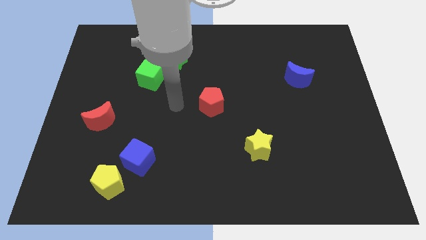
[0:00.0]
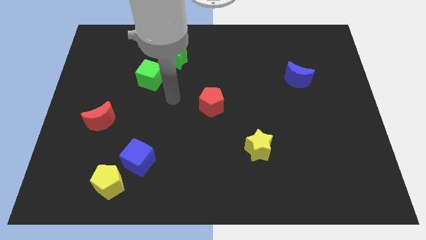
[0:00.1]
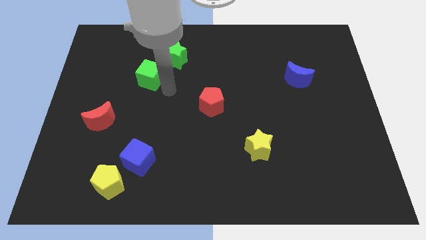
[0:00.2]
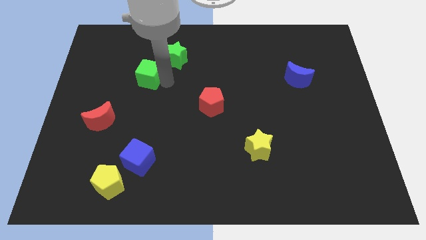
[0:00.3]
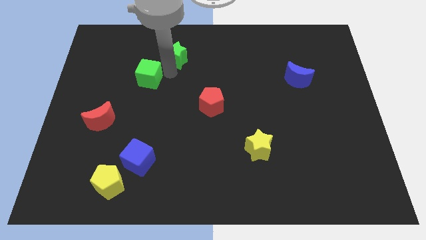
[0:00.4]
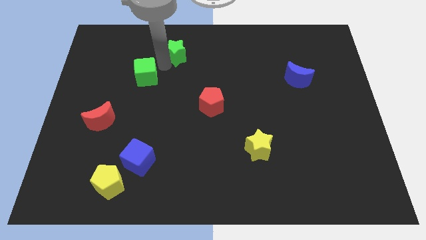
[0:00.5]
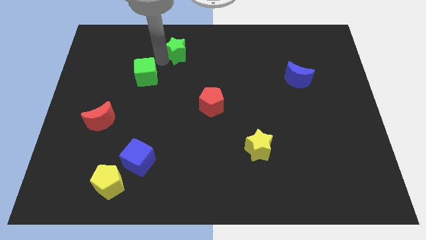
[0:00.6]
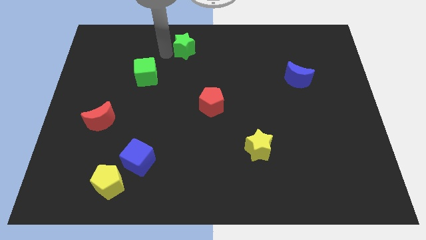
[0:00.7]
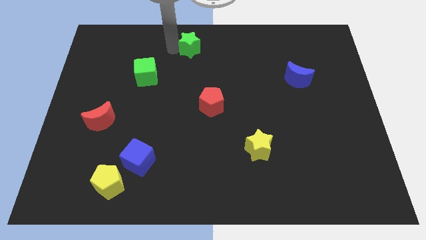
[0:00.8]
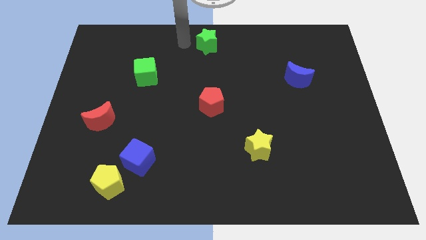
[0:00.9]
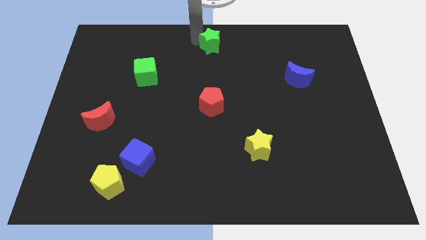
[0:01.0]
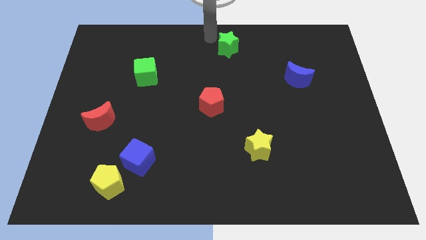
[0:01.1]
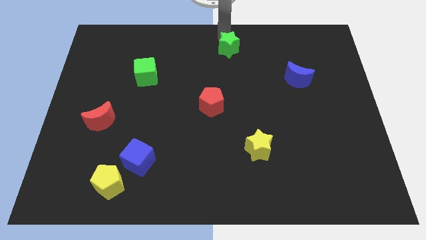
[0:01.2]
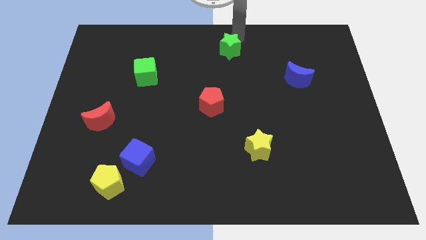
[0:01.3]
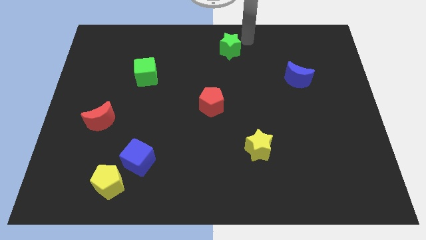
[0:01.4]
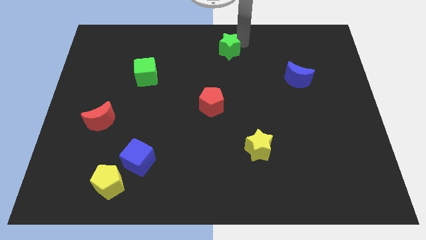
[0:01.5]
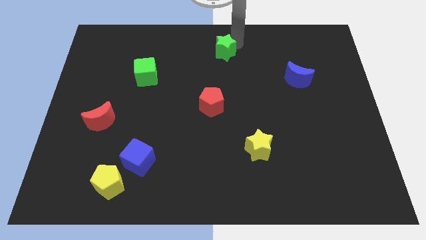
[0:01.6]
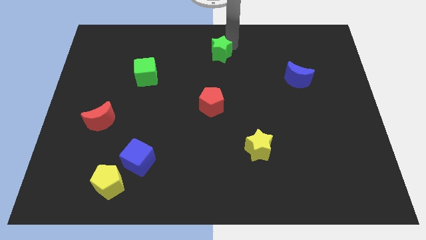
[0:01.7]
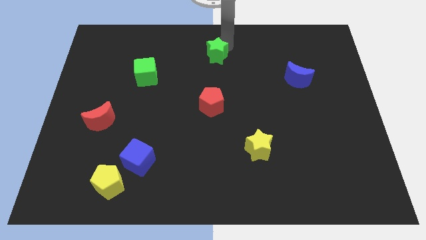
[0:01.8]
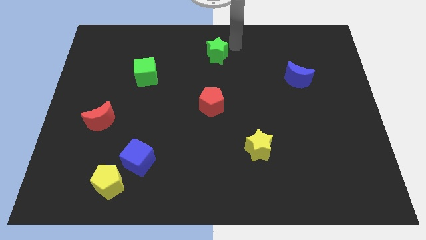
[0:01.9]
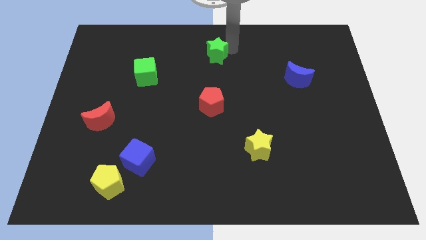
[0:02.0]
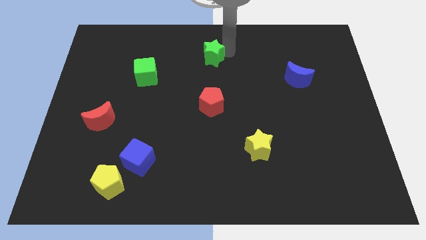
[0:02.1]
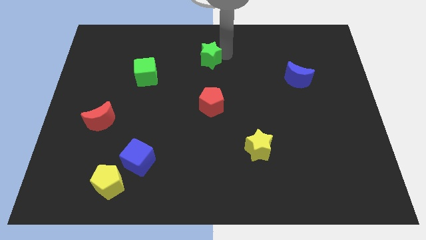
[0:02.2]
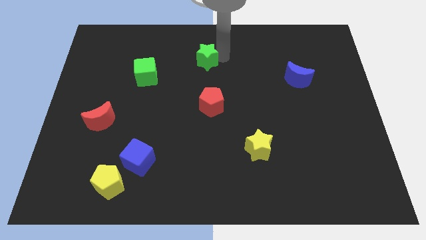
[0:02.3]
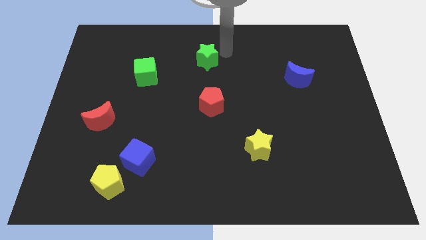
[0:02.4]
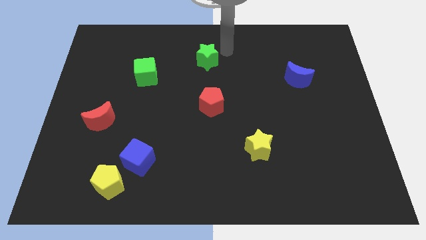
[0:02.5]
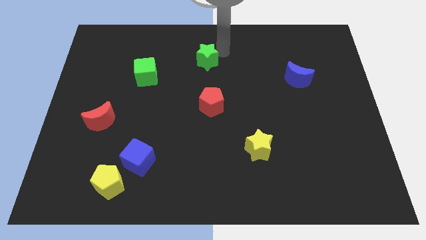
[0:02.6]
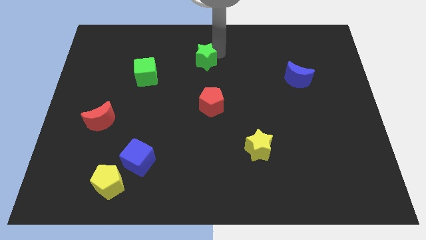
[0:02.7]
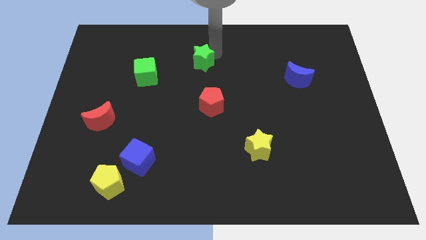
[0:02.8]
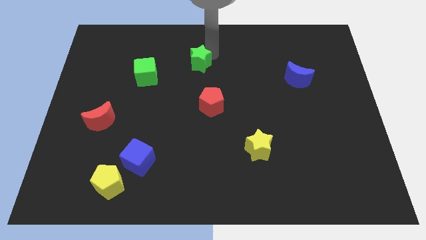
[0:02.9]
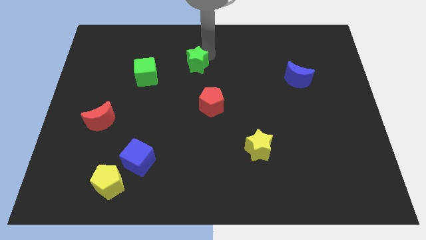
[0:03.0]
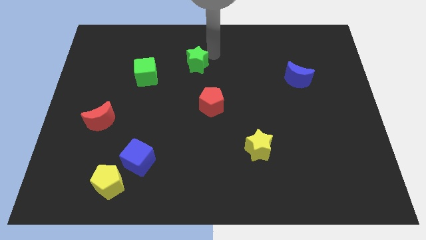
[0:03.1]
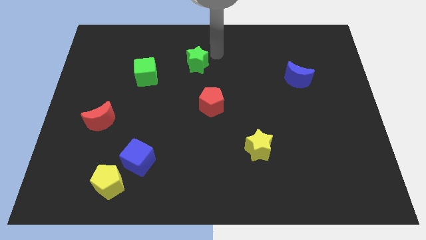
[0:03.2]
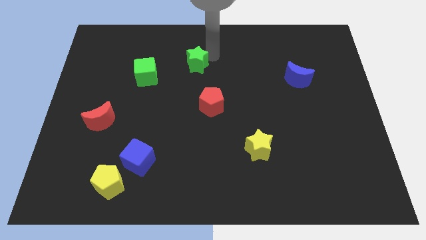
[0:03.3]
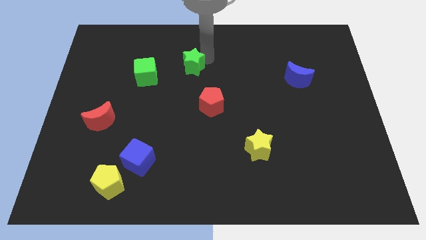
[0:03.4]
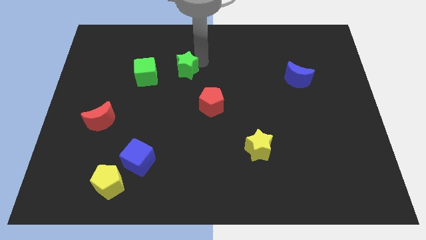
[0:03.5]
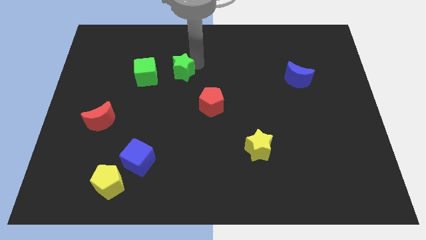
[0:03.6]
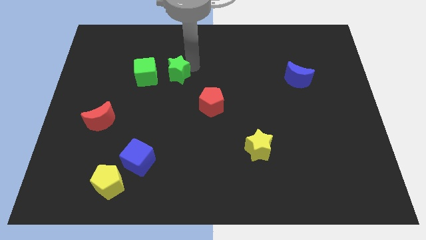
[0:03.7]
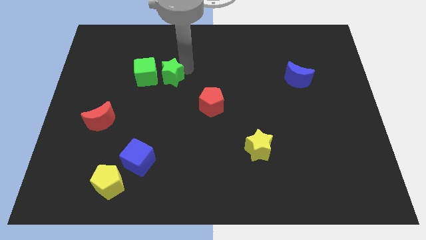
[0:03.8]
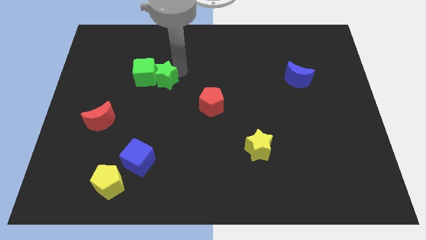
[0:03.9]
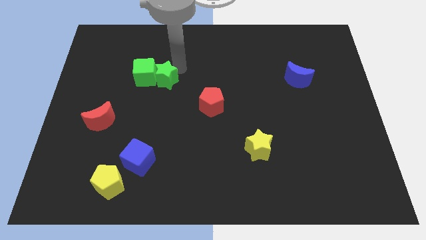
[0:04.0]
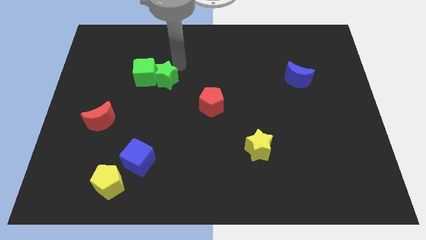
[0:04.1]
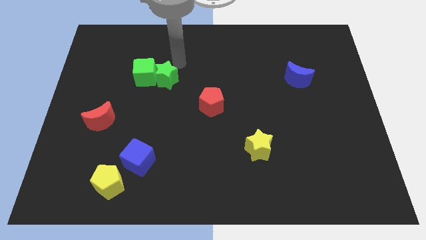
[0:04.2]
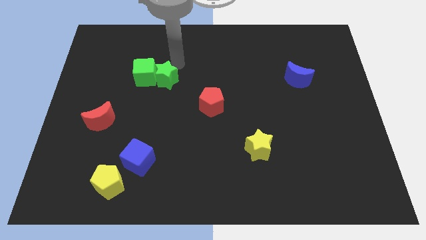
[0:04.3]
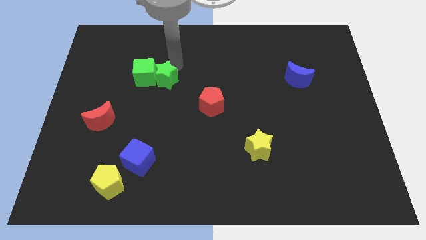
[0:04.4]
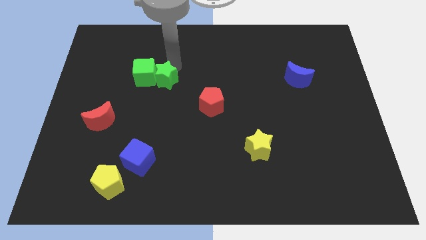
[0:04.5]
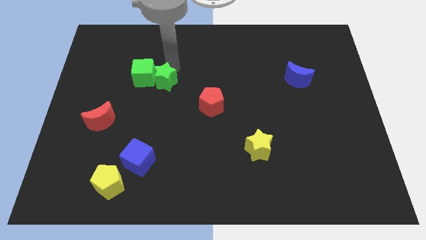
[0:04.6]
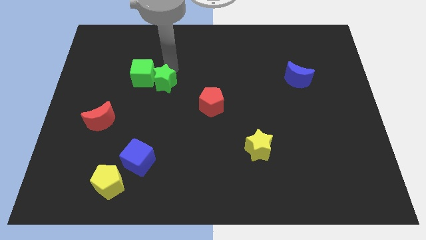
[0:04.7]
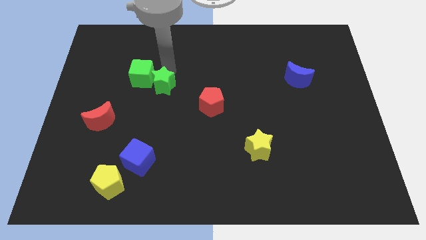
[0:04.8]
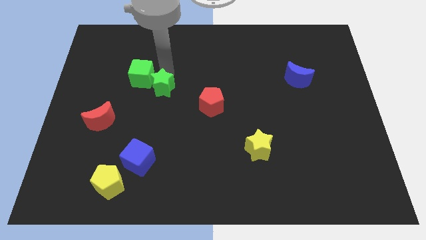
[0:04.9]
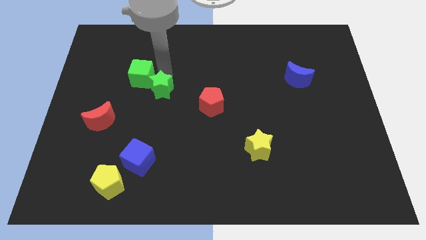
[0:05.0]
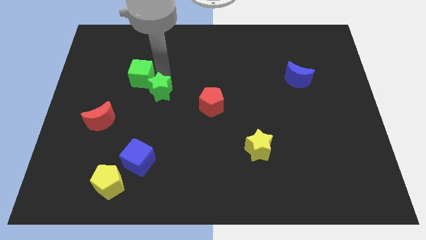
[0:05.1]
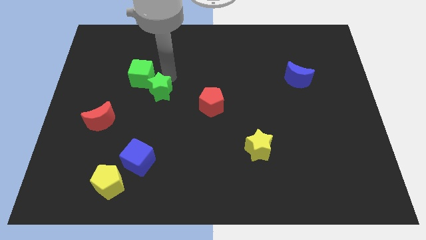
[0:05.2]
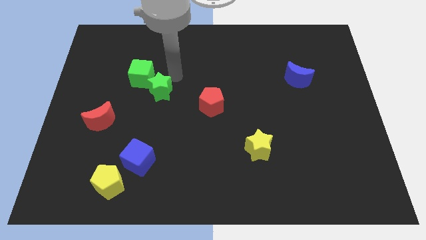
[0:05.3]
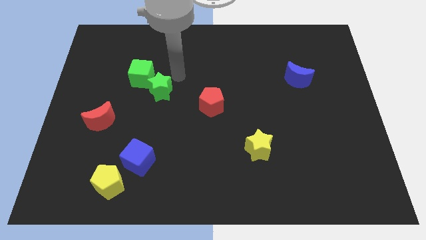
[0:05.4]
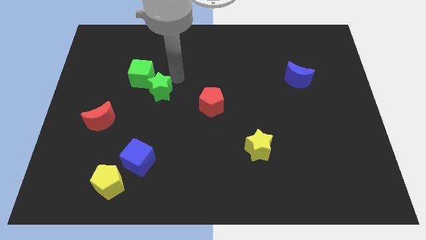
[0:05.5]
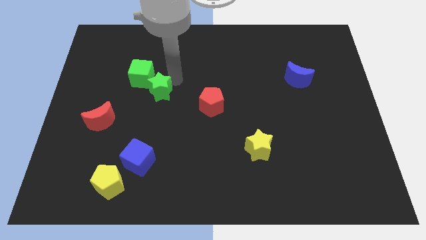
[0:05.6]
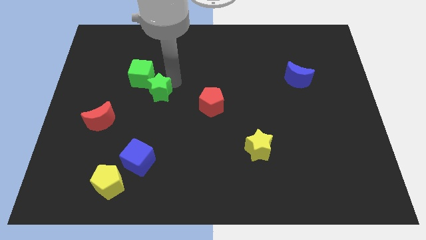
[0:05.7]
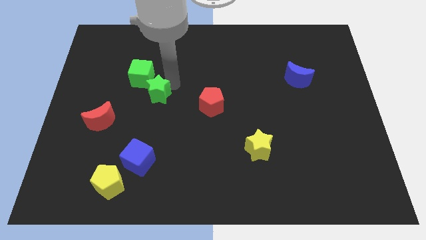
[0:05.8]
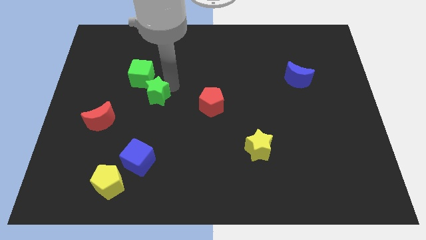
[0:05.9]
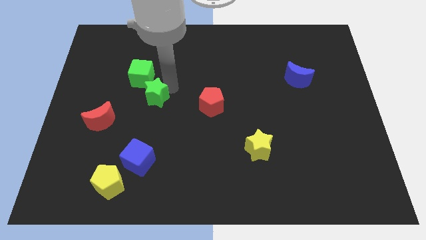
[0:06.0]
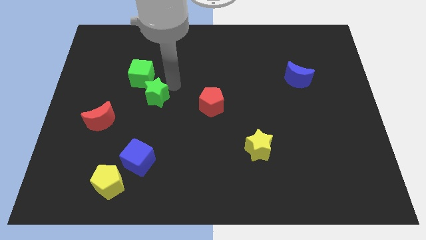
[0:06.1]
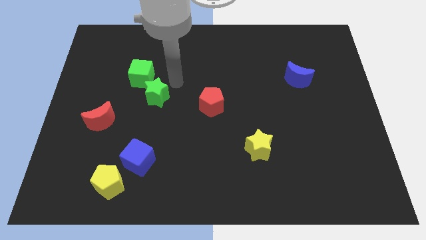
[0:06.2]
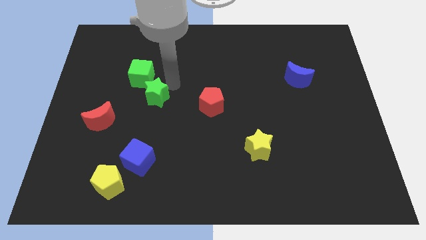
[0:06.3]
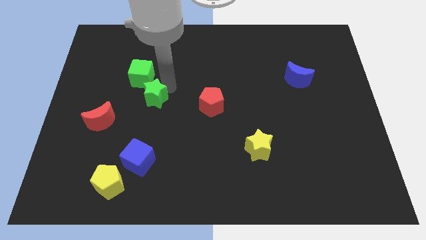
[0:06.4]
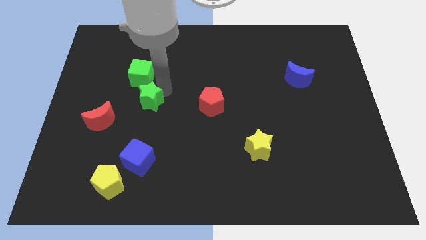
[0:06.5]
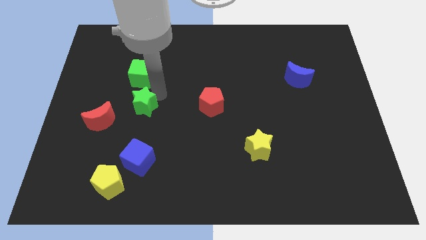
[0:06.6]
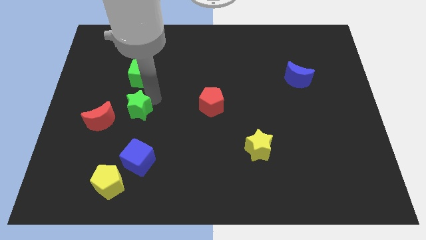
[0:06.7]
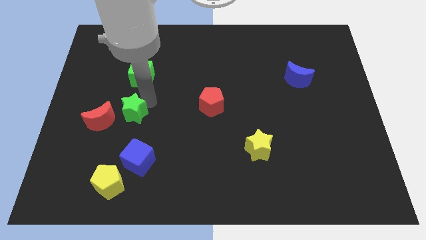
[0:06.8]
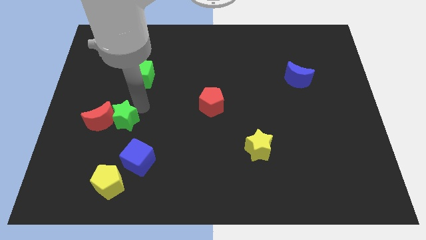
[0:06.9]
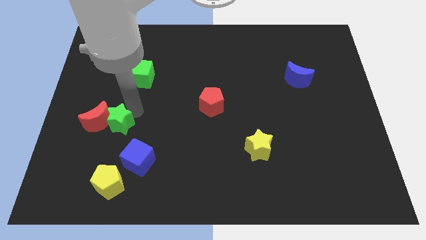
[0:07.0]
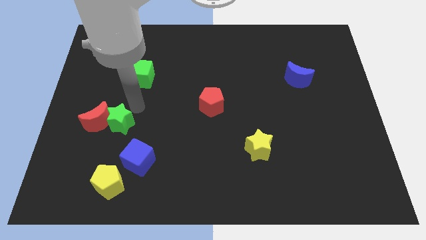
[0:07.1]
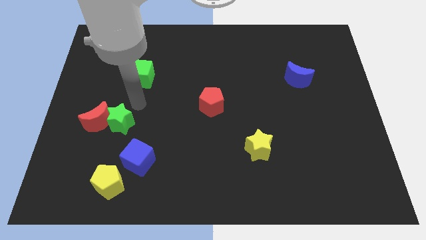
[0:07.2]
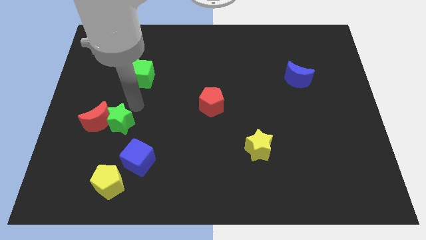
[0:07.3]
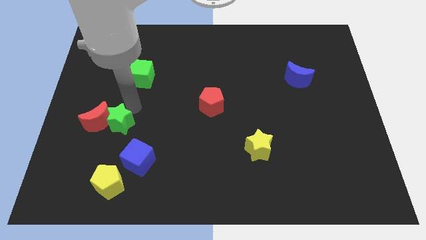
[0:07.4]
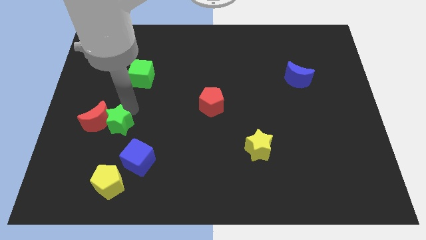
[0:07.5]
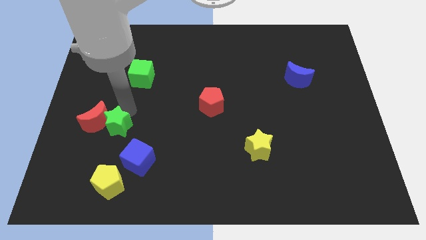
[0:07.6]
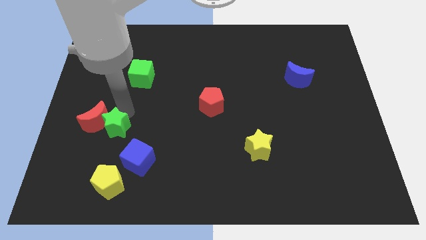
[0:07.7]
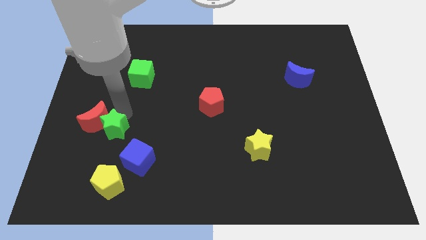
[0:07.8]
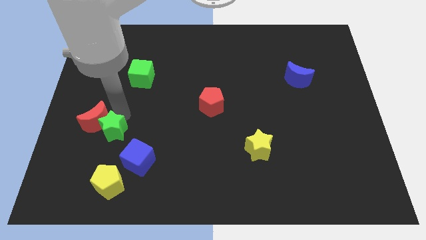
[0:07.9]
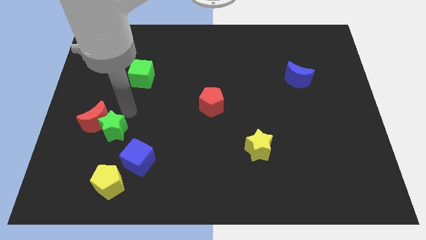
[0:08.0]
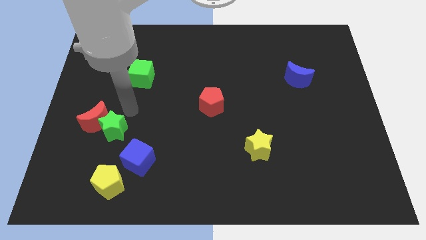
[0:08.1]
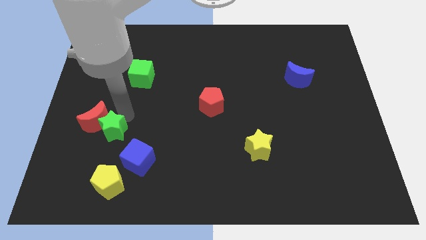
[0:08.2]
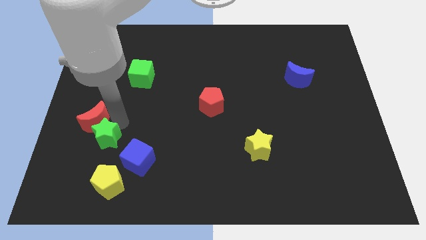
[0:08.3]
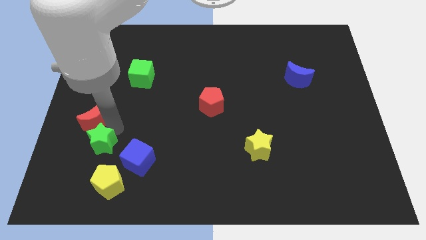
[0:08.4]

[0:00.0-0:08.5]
slide the green star to the left of the blue cube
